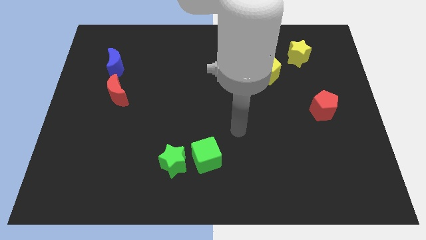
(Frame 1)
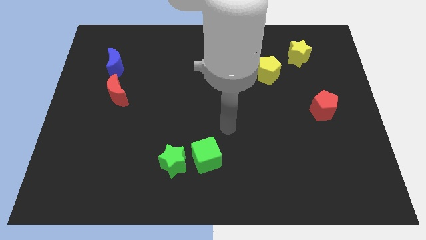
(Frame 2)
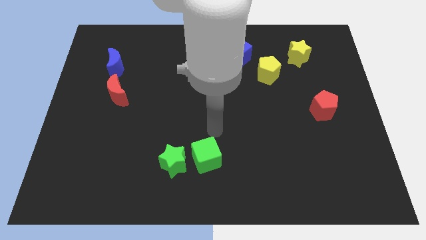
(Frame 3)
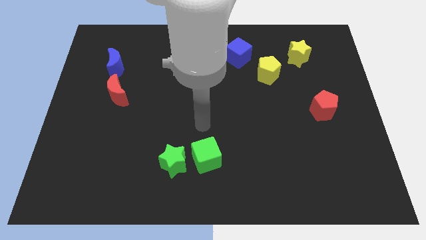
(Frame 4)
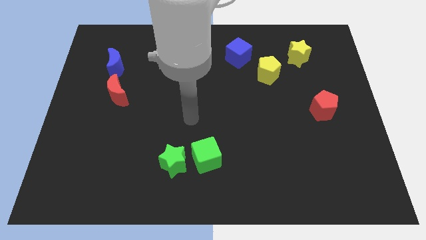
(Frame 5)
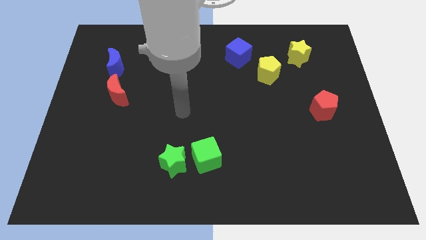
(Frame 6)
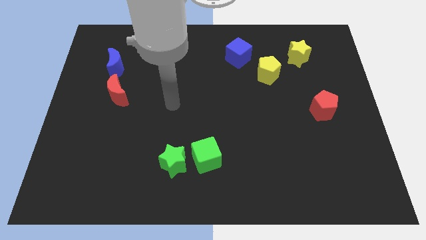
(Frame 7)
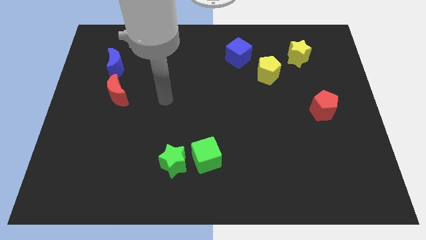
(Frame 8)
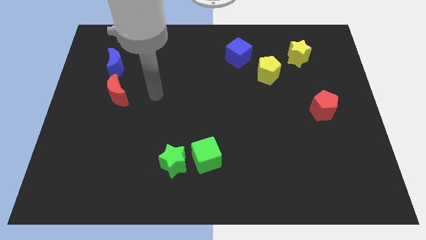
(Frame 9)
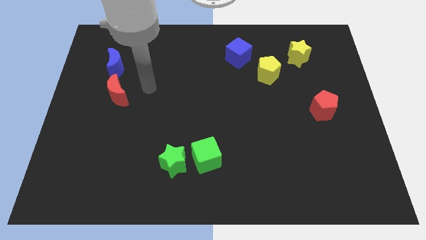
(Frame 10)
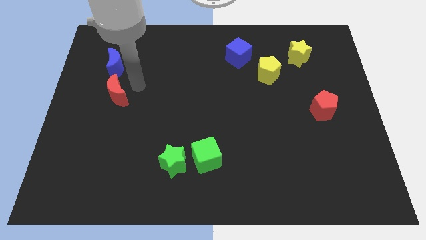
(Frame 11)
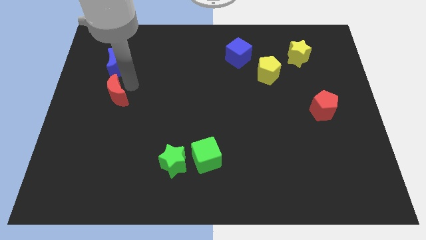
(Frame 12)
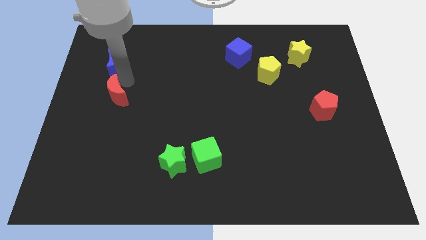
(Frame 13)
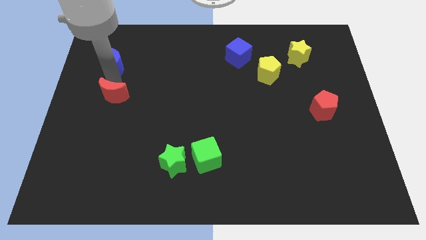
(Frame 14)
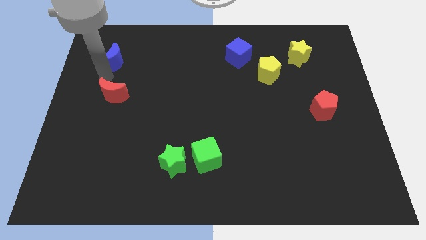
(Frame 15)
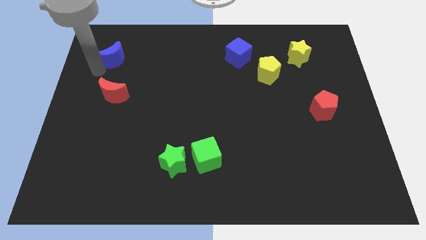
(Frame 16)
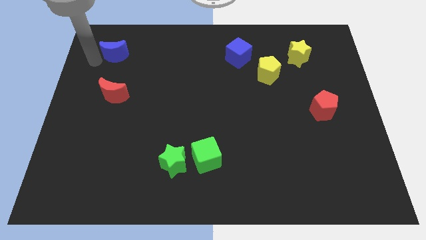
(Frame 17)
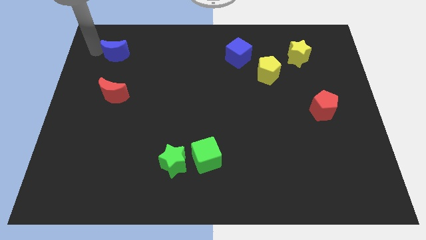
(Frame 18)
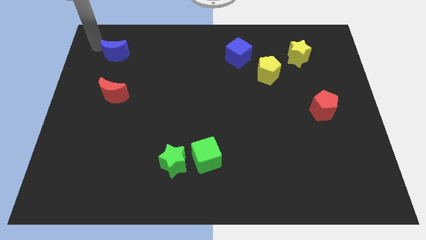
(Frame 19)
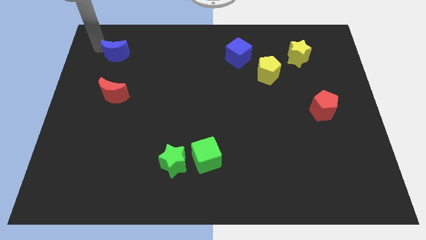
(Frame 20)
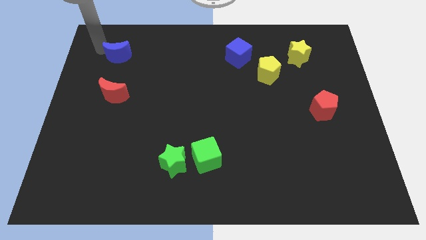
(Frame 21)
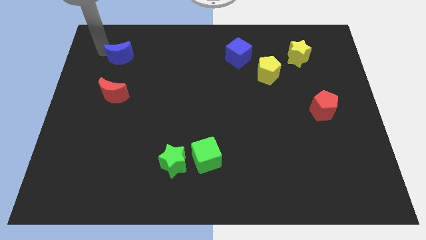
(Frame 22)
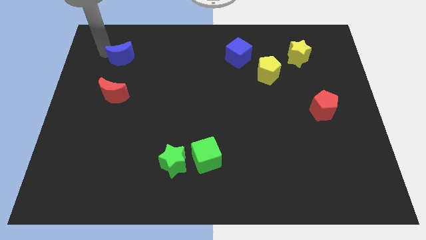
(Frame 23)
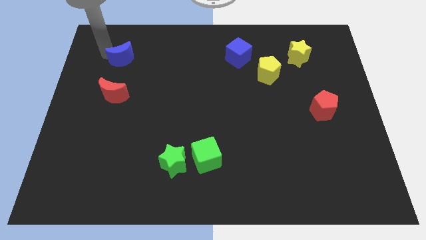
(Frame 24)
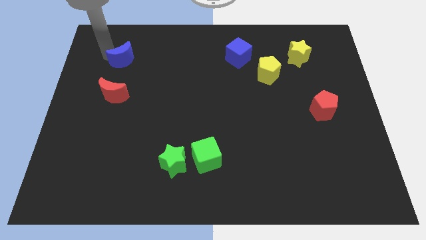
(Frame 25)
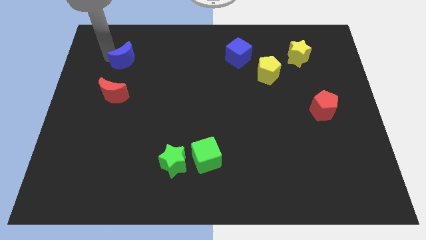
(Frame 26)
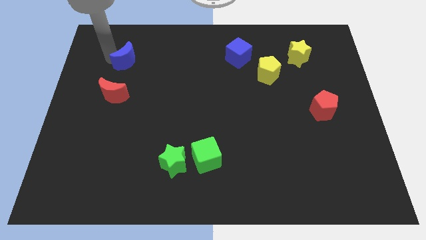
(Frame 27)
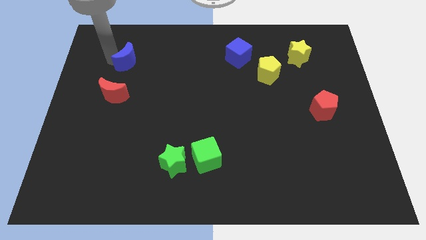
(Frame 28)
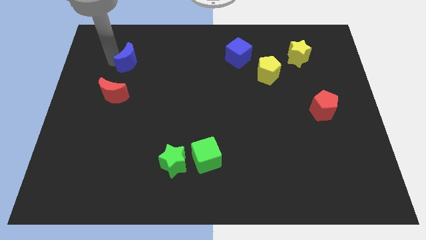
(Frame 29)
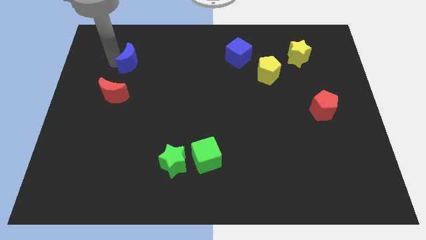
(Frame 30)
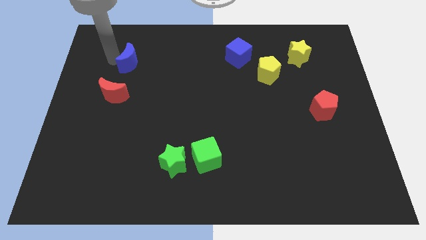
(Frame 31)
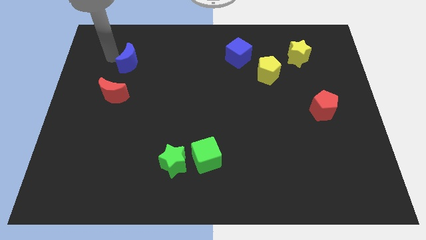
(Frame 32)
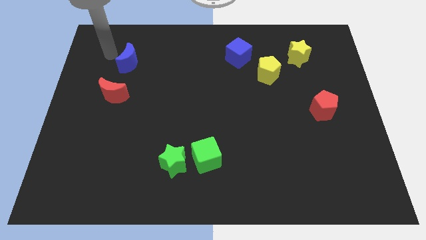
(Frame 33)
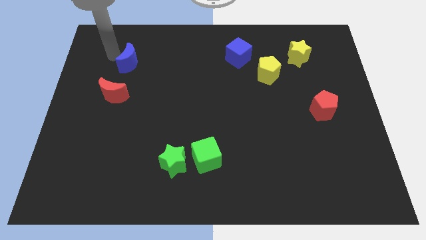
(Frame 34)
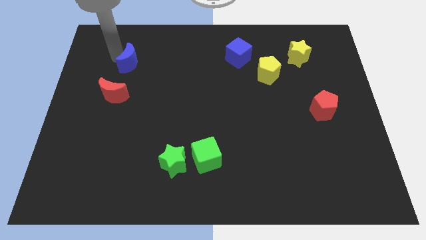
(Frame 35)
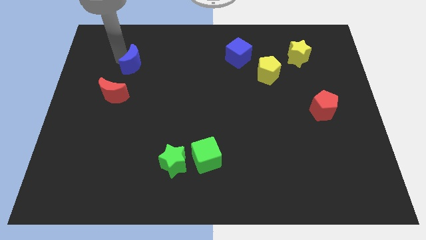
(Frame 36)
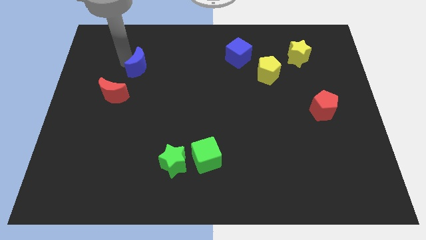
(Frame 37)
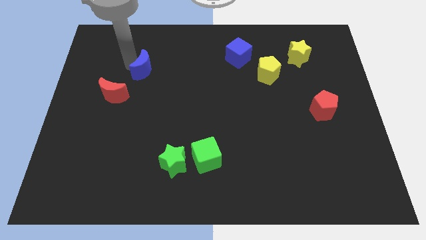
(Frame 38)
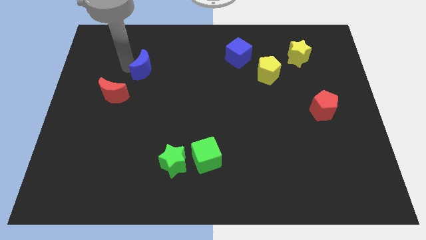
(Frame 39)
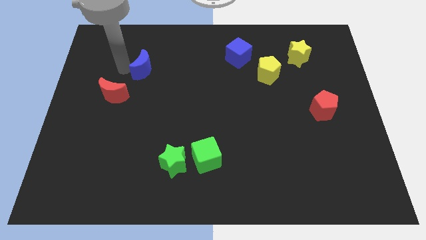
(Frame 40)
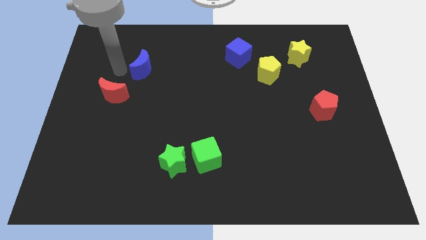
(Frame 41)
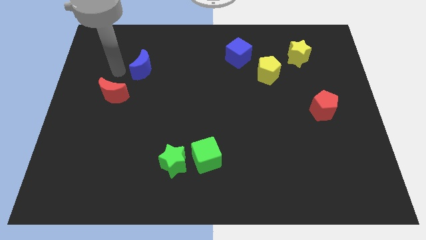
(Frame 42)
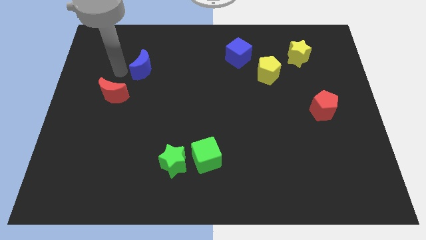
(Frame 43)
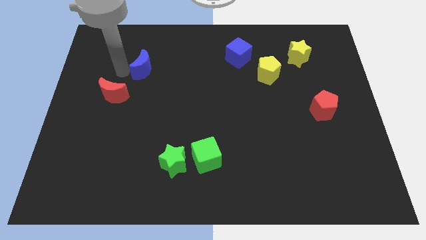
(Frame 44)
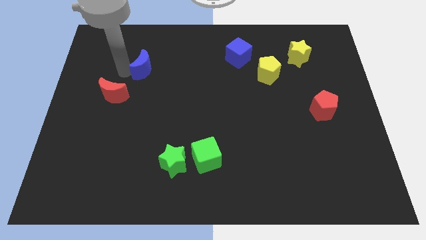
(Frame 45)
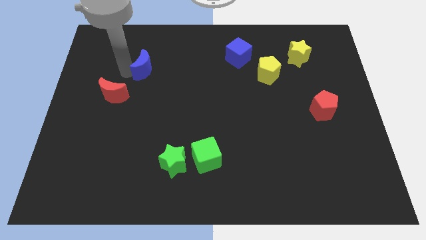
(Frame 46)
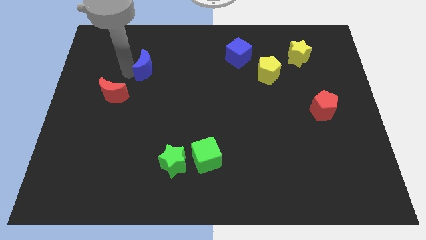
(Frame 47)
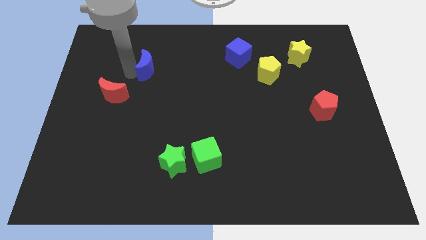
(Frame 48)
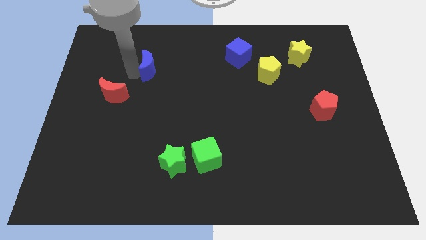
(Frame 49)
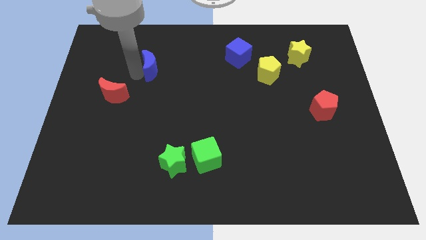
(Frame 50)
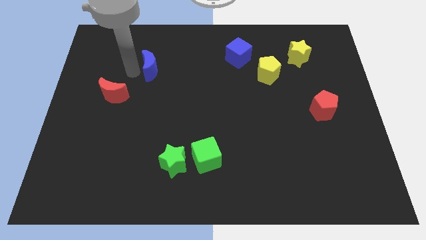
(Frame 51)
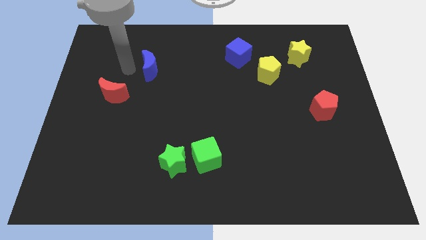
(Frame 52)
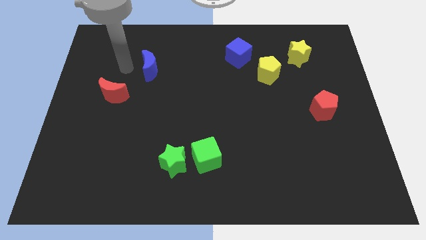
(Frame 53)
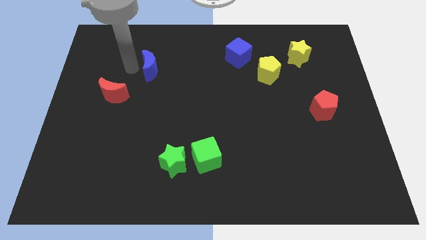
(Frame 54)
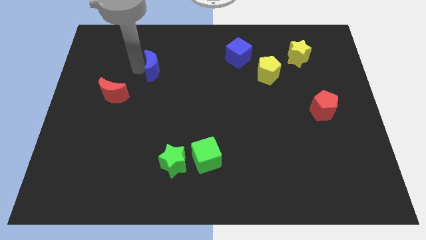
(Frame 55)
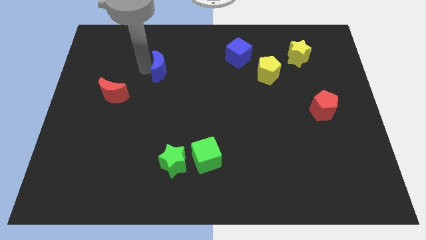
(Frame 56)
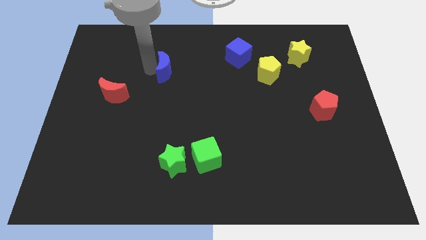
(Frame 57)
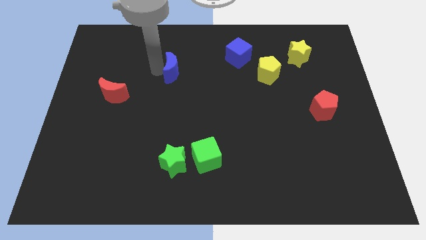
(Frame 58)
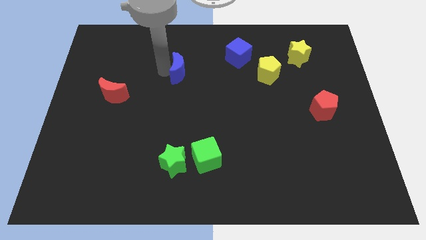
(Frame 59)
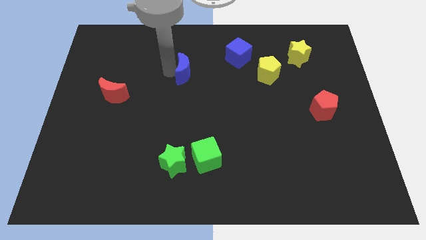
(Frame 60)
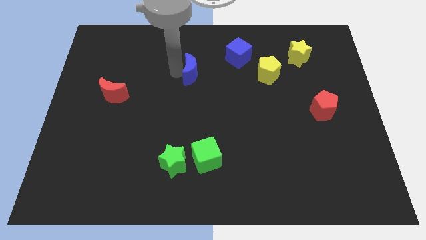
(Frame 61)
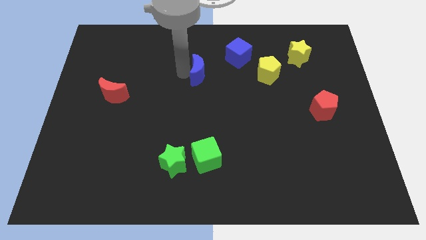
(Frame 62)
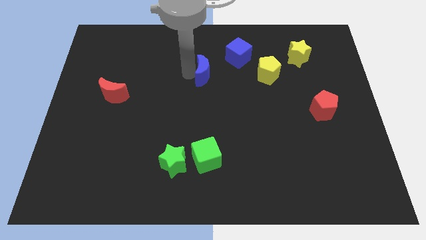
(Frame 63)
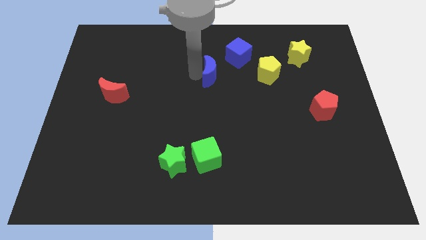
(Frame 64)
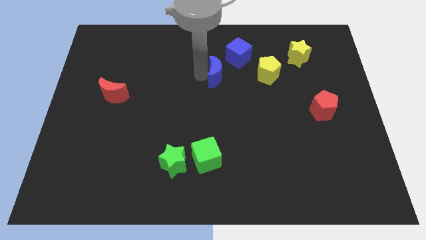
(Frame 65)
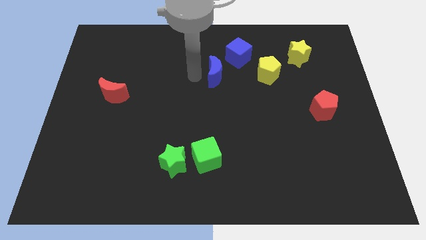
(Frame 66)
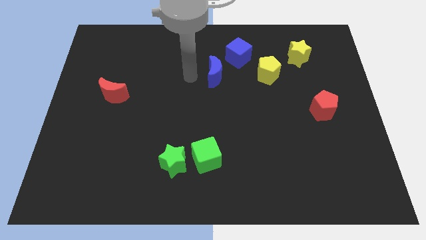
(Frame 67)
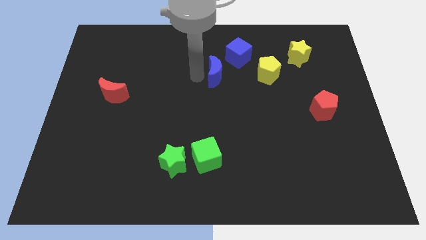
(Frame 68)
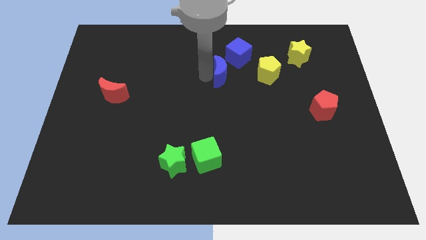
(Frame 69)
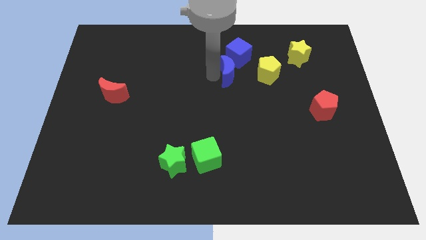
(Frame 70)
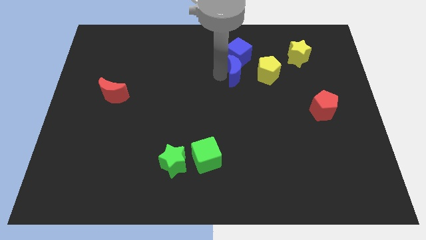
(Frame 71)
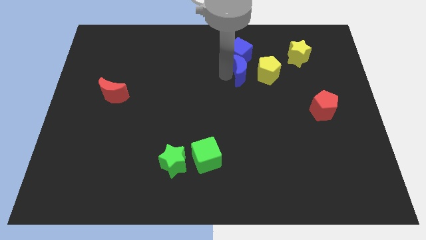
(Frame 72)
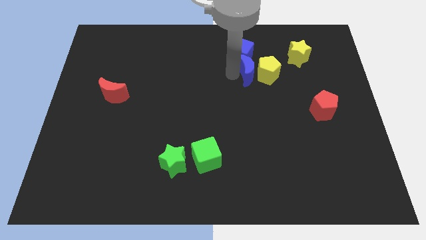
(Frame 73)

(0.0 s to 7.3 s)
move the blue moon close to the yellow pentagon

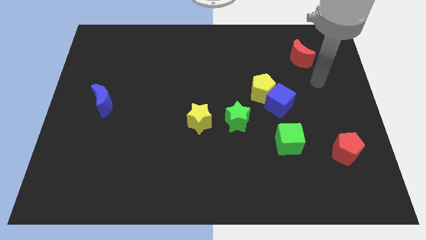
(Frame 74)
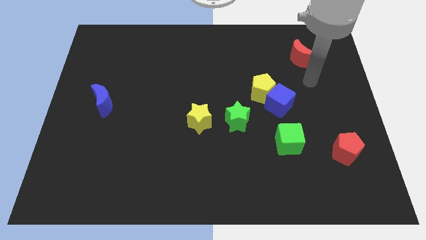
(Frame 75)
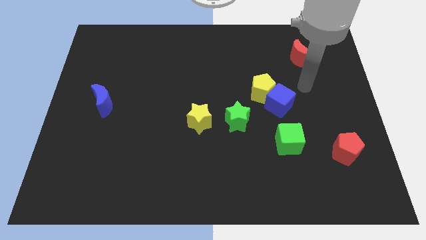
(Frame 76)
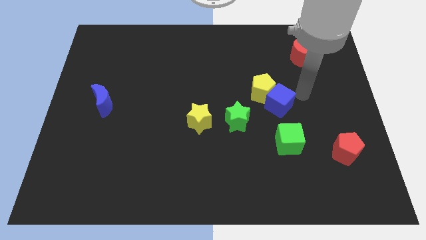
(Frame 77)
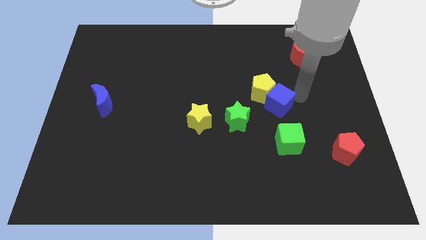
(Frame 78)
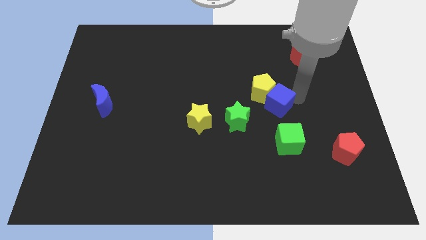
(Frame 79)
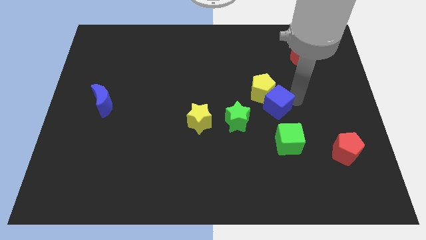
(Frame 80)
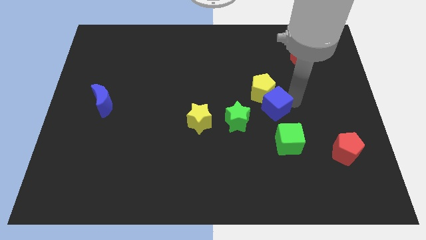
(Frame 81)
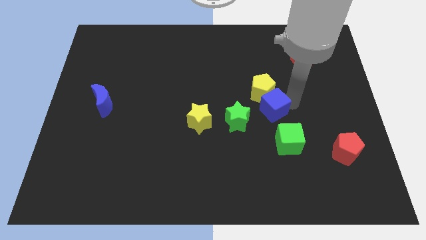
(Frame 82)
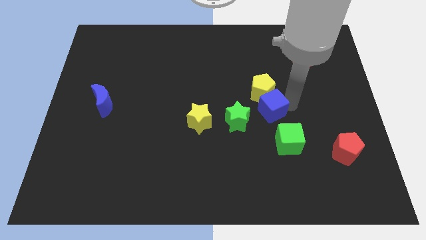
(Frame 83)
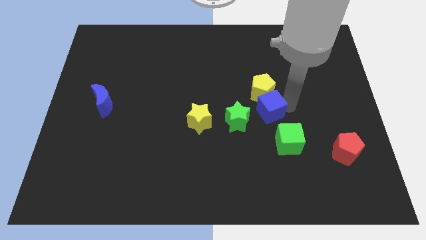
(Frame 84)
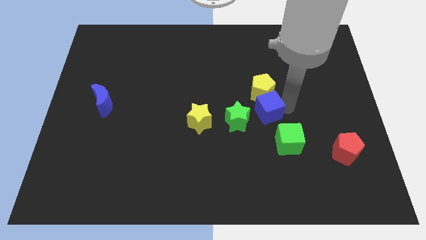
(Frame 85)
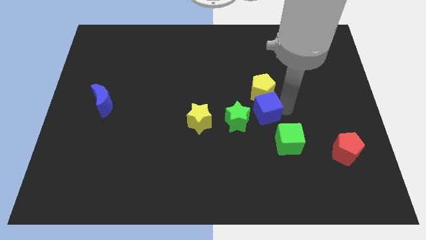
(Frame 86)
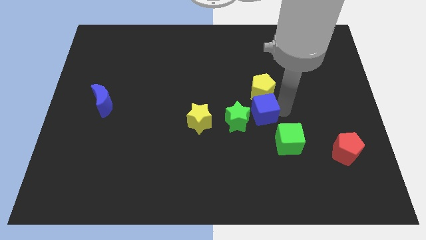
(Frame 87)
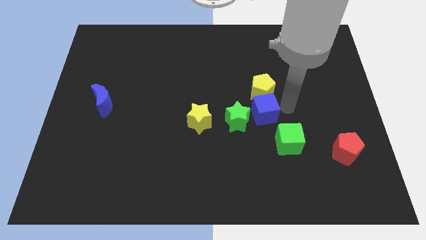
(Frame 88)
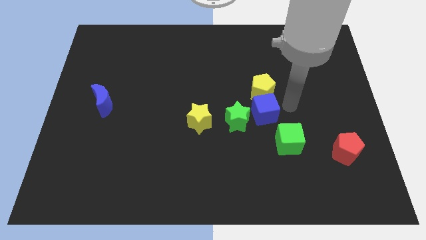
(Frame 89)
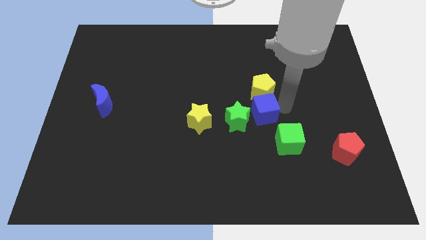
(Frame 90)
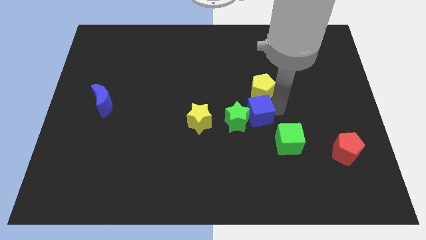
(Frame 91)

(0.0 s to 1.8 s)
push the blue cube towards the green star
